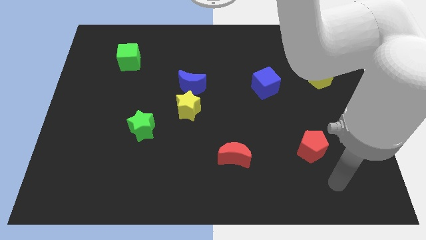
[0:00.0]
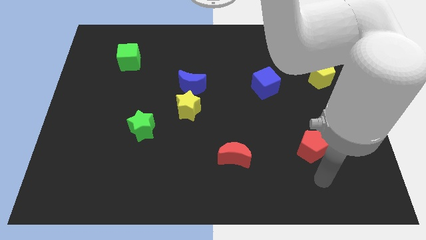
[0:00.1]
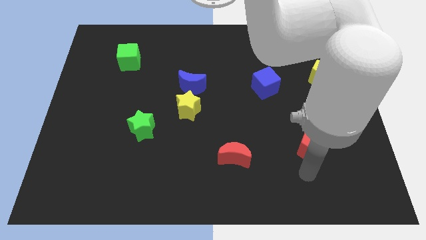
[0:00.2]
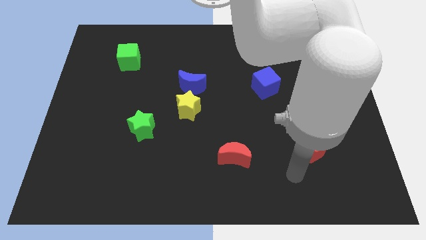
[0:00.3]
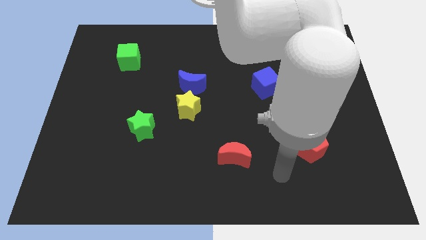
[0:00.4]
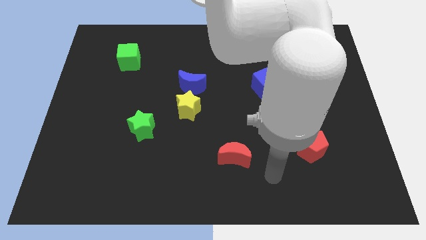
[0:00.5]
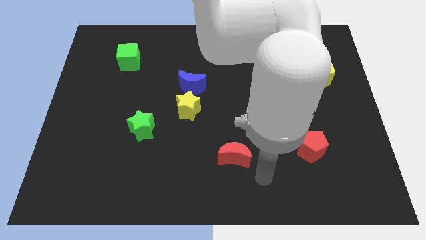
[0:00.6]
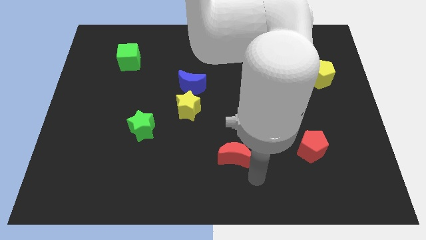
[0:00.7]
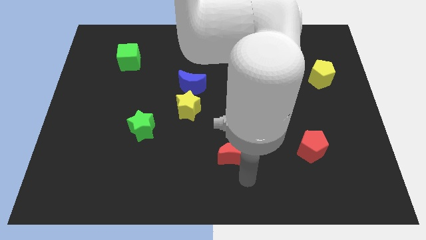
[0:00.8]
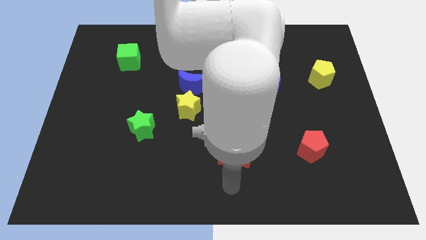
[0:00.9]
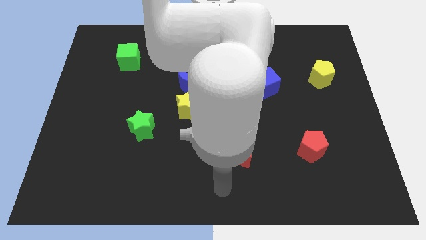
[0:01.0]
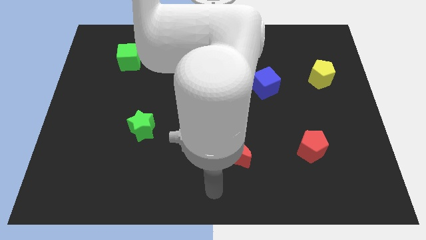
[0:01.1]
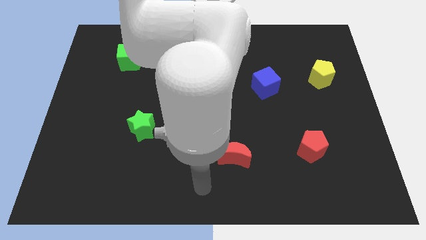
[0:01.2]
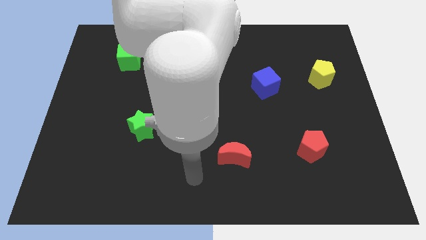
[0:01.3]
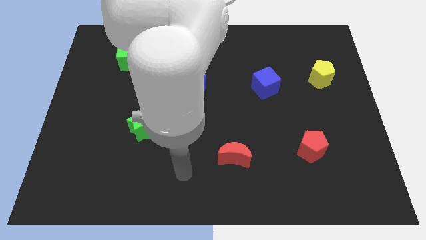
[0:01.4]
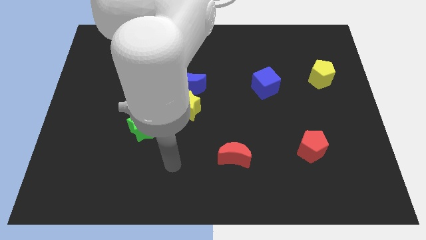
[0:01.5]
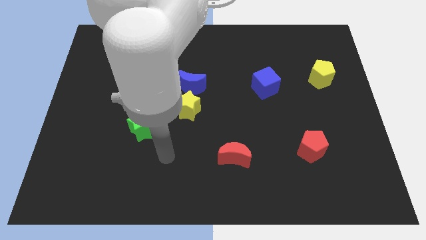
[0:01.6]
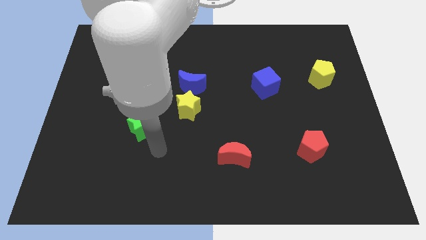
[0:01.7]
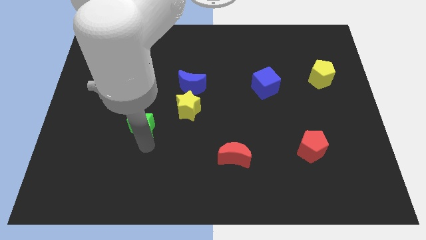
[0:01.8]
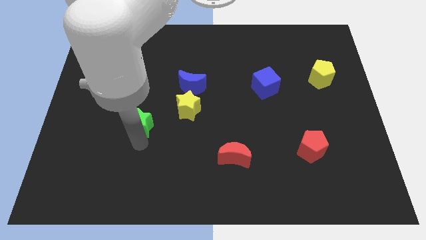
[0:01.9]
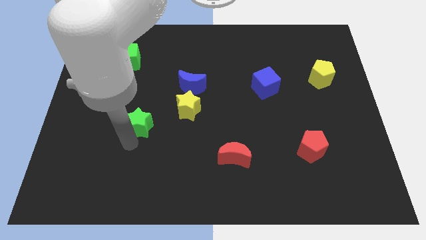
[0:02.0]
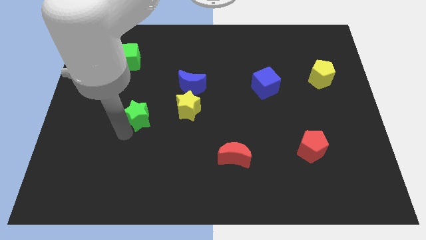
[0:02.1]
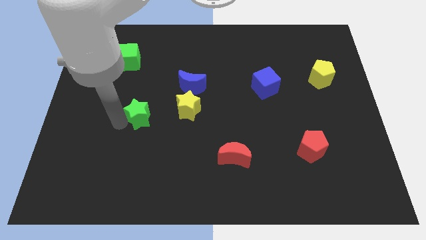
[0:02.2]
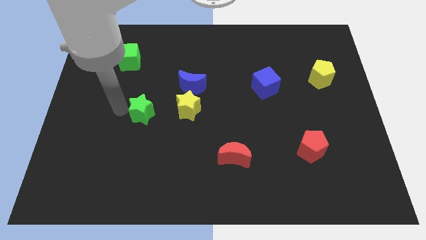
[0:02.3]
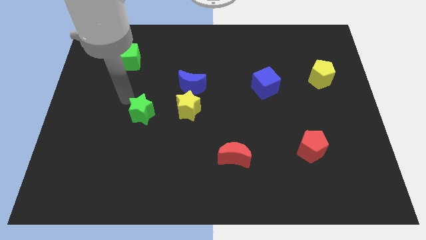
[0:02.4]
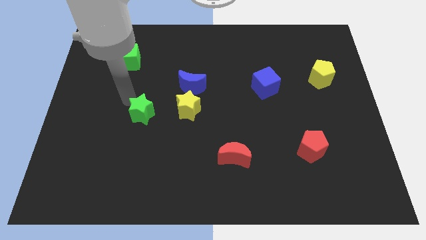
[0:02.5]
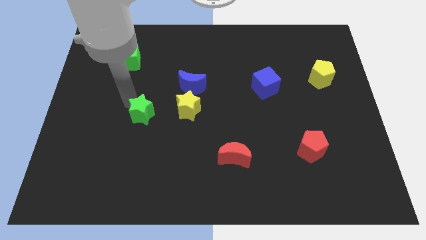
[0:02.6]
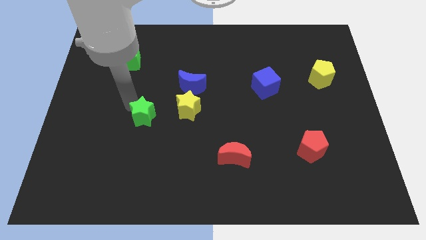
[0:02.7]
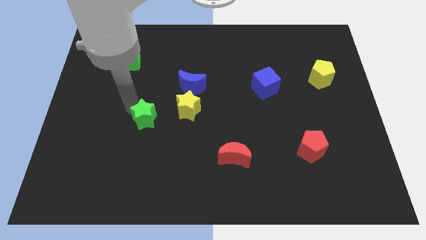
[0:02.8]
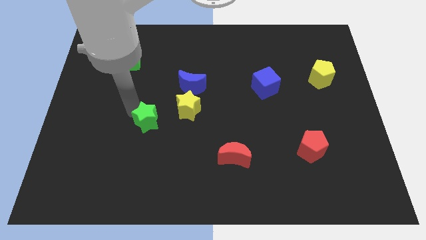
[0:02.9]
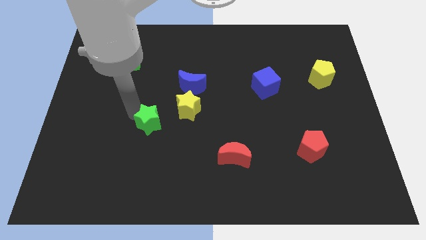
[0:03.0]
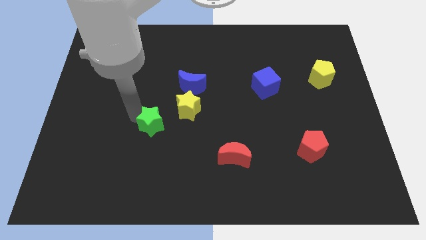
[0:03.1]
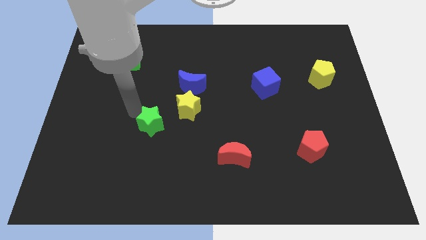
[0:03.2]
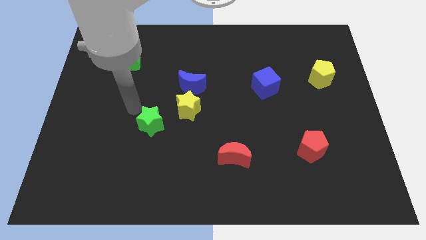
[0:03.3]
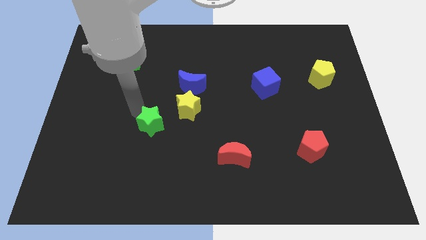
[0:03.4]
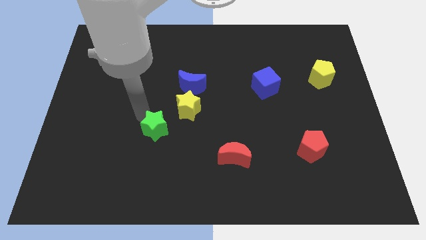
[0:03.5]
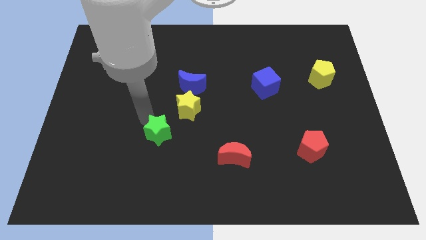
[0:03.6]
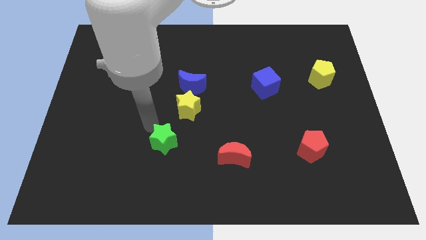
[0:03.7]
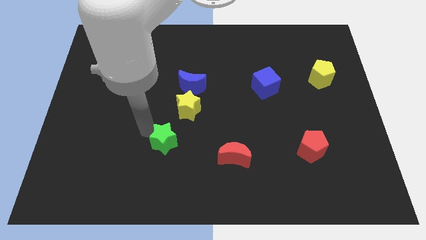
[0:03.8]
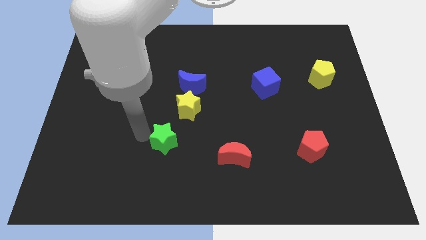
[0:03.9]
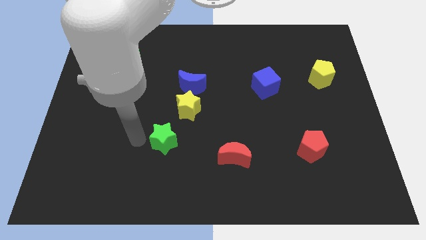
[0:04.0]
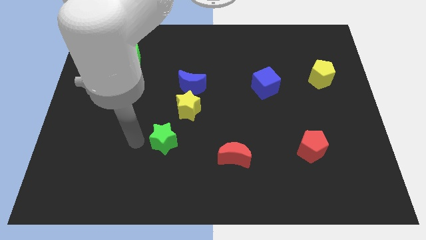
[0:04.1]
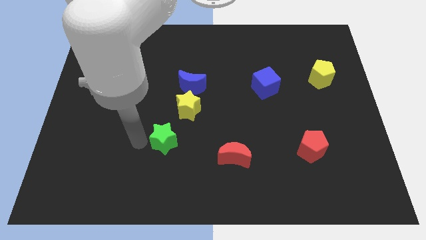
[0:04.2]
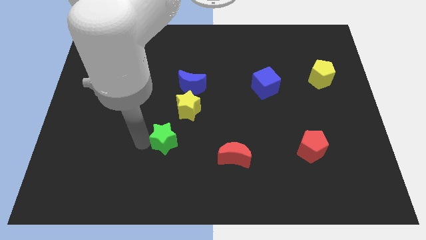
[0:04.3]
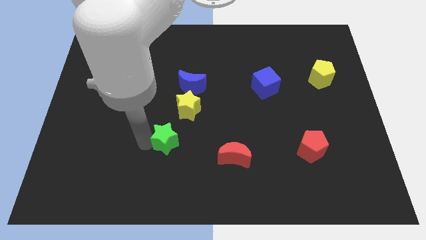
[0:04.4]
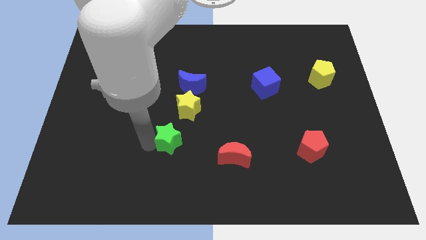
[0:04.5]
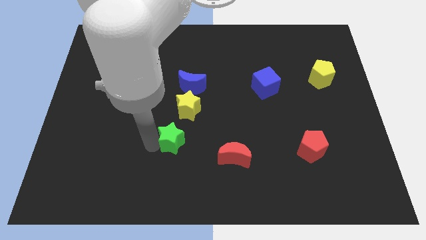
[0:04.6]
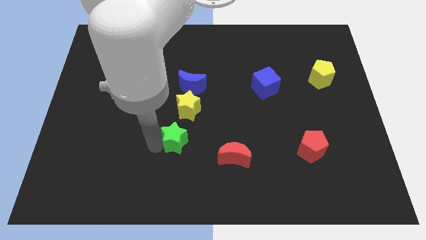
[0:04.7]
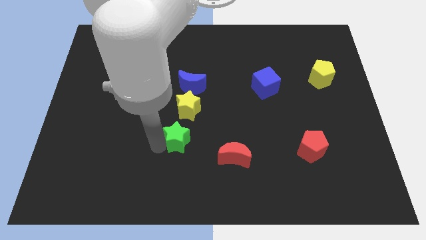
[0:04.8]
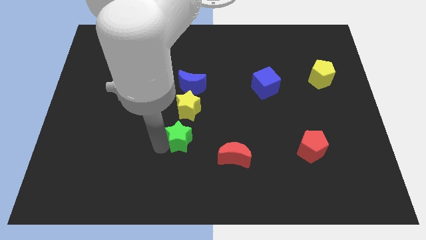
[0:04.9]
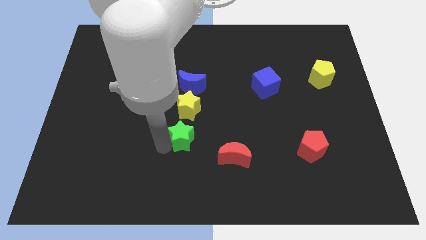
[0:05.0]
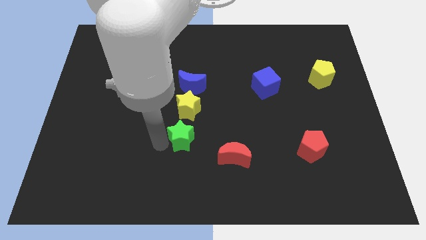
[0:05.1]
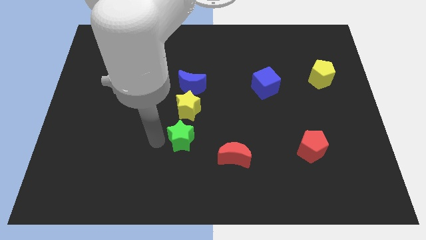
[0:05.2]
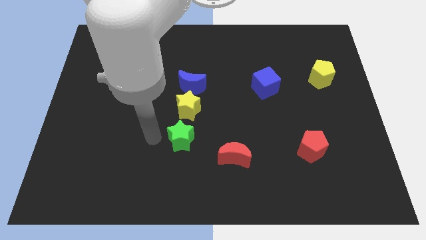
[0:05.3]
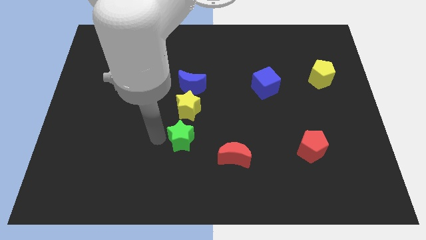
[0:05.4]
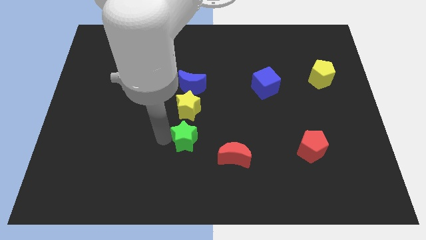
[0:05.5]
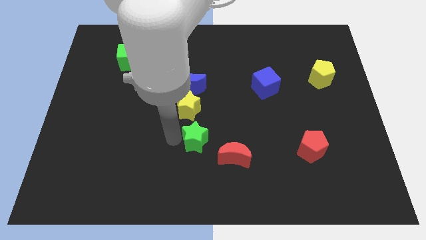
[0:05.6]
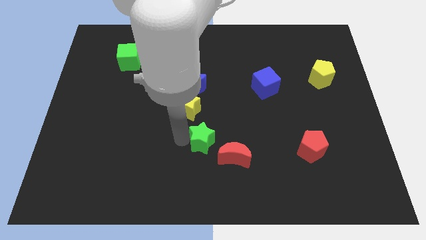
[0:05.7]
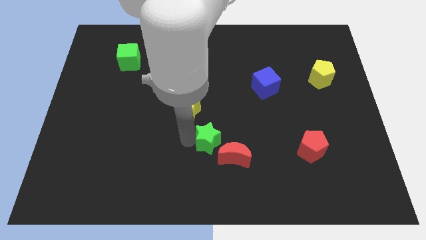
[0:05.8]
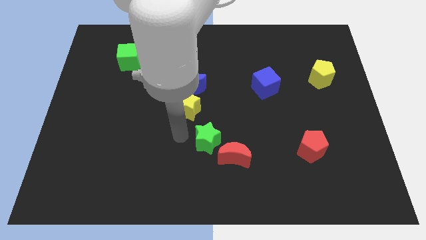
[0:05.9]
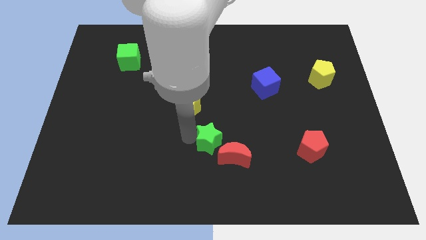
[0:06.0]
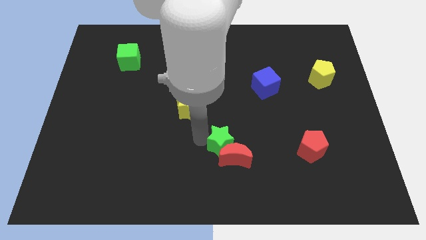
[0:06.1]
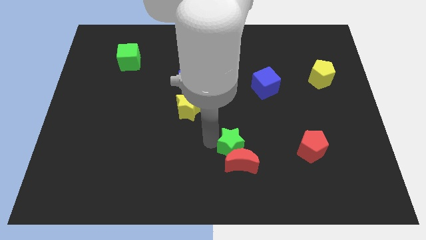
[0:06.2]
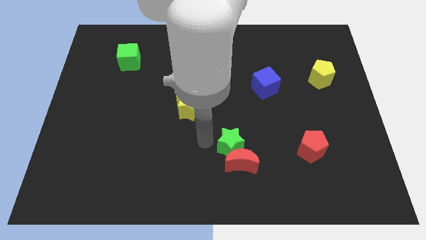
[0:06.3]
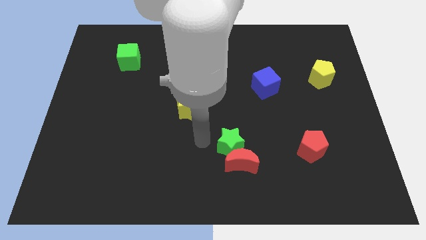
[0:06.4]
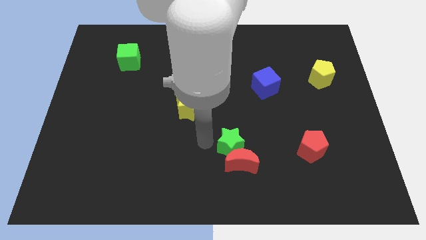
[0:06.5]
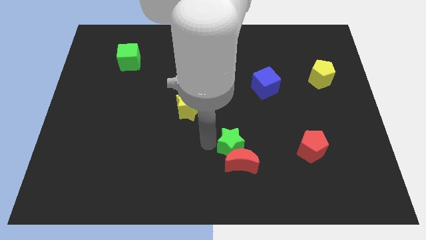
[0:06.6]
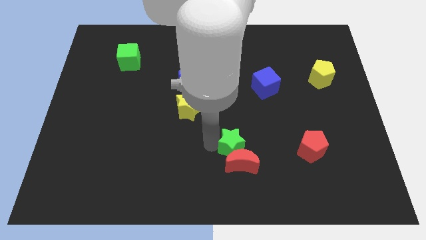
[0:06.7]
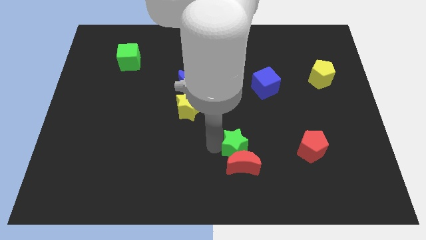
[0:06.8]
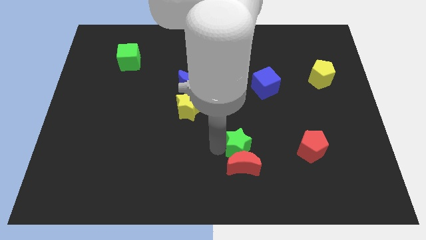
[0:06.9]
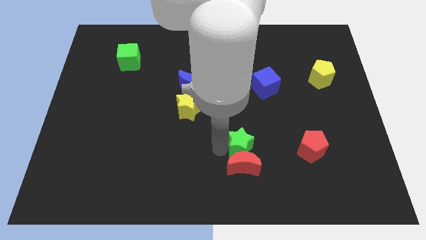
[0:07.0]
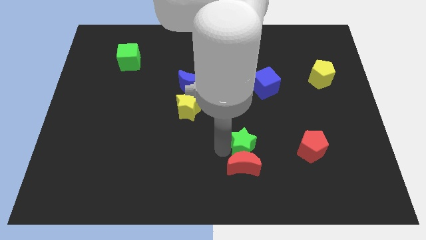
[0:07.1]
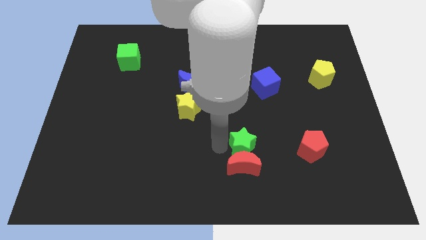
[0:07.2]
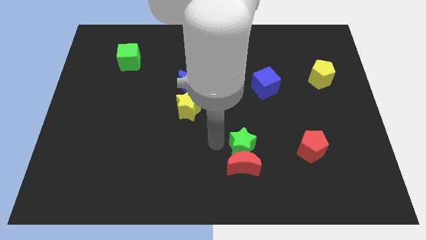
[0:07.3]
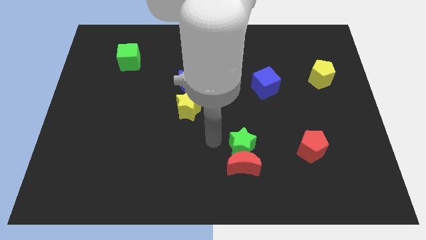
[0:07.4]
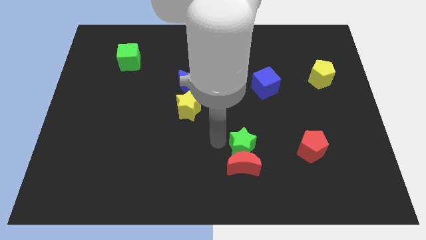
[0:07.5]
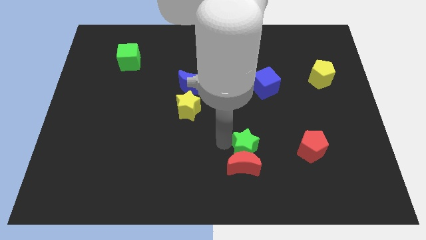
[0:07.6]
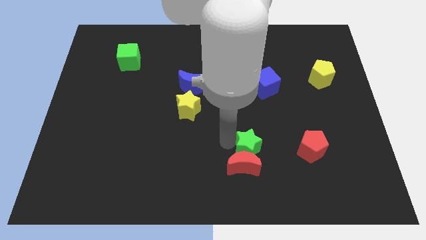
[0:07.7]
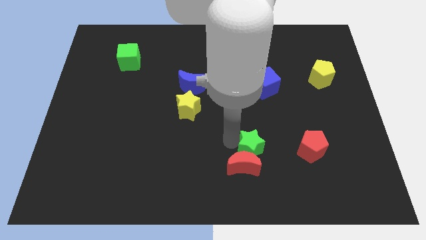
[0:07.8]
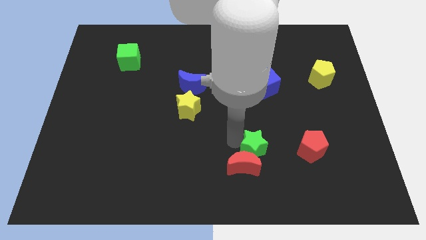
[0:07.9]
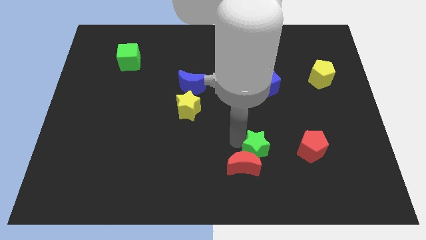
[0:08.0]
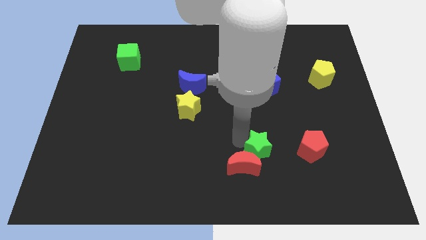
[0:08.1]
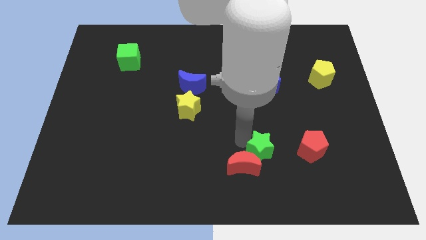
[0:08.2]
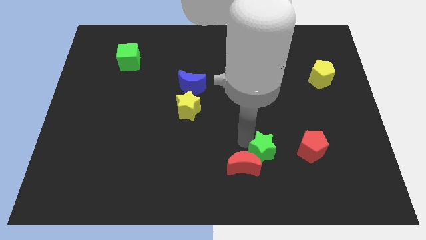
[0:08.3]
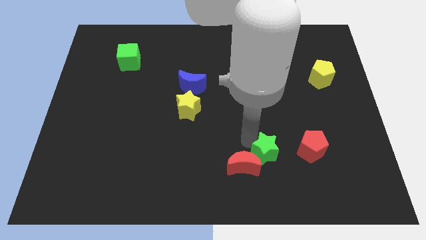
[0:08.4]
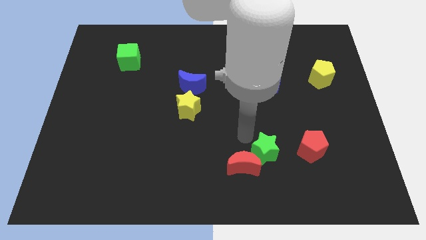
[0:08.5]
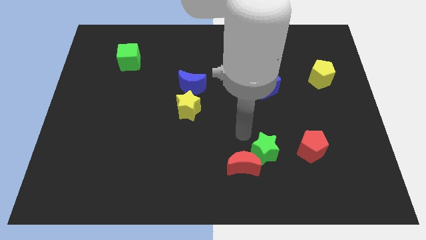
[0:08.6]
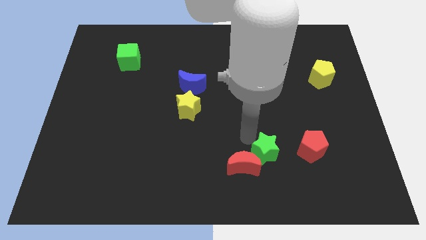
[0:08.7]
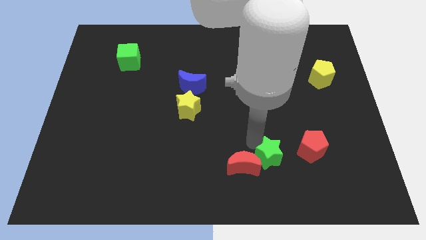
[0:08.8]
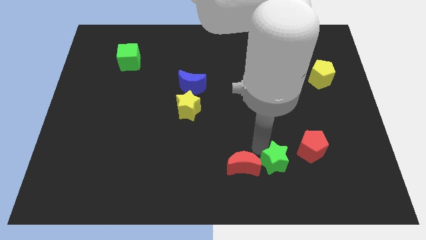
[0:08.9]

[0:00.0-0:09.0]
push the green star to the bottom left of the red pentagon
